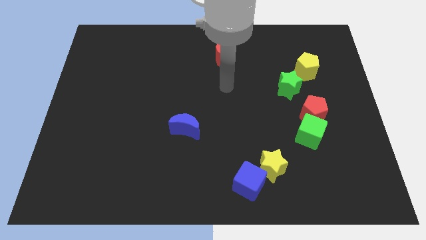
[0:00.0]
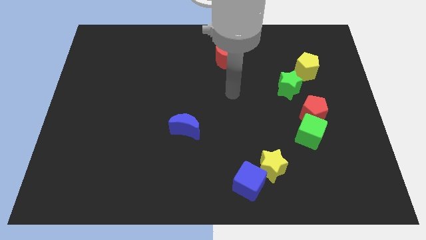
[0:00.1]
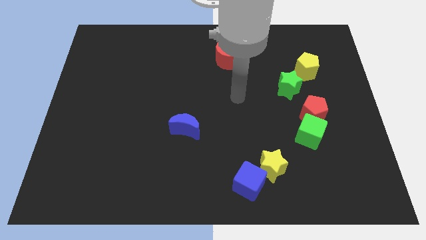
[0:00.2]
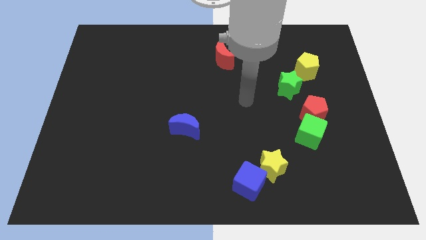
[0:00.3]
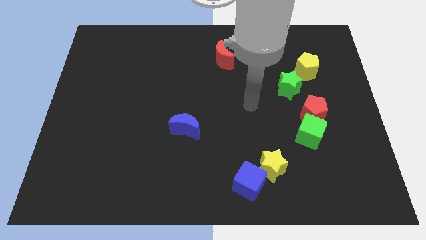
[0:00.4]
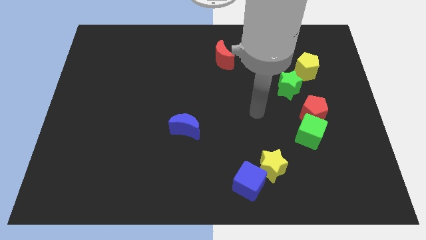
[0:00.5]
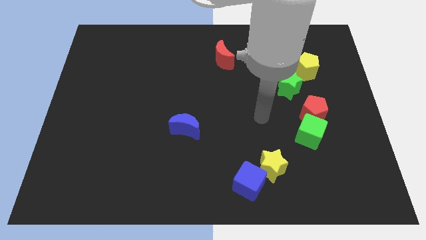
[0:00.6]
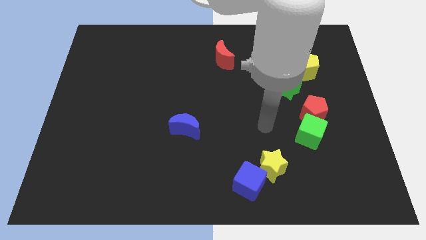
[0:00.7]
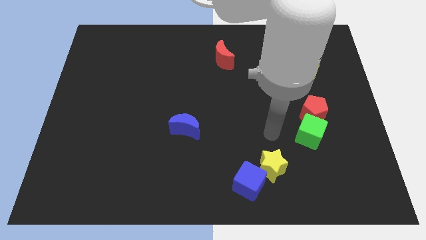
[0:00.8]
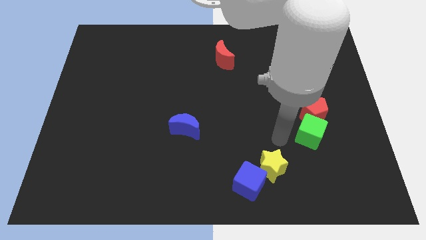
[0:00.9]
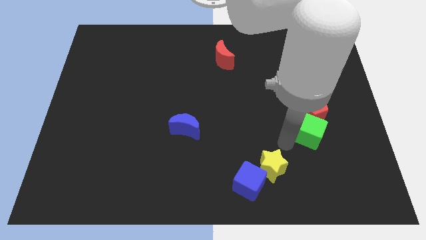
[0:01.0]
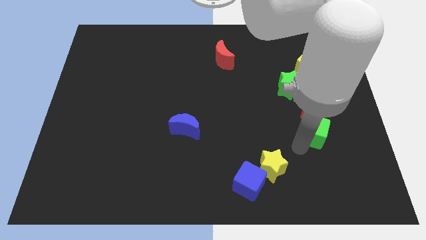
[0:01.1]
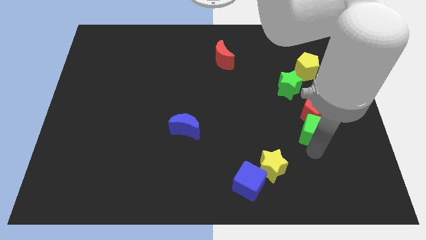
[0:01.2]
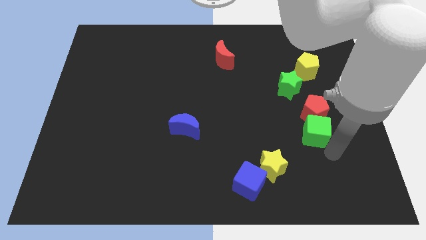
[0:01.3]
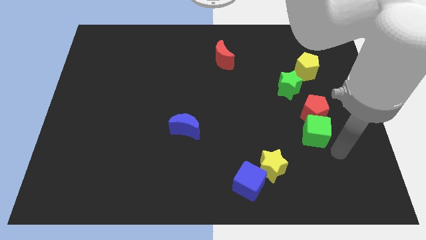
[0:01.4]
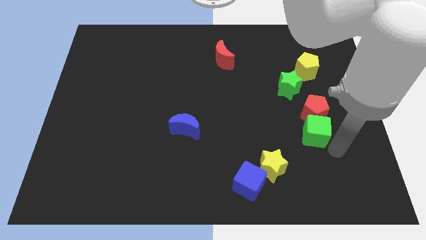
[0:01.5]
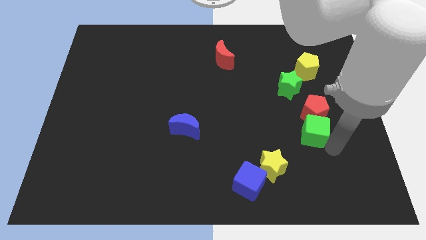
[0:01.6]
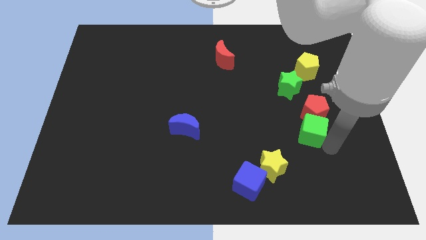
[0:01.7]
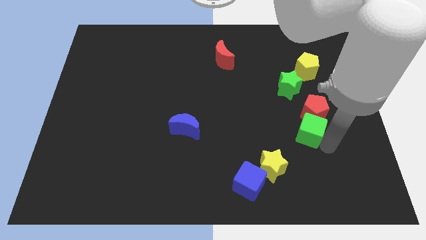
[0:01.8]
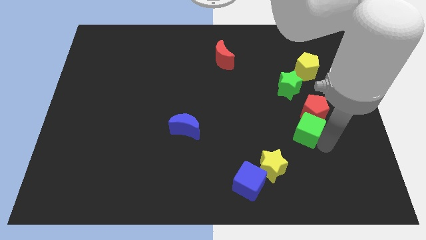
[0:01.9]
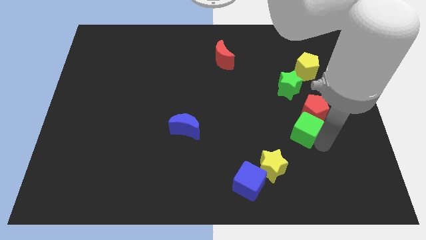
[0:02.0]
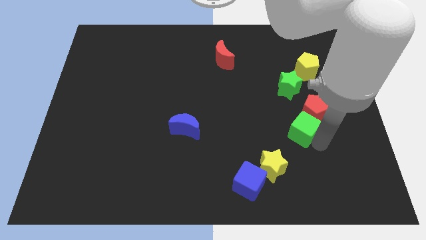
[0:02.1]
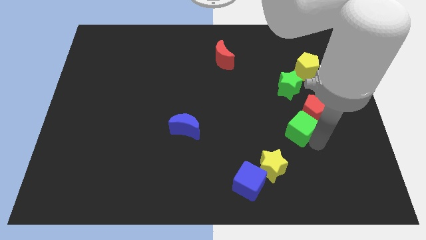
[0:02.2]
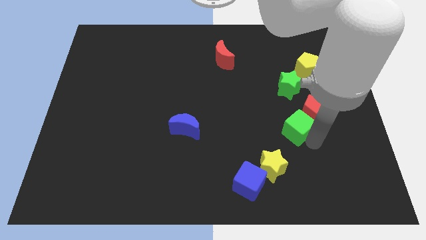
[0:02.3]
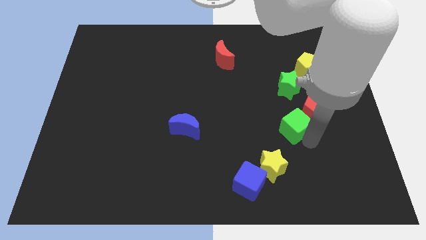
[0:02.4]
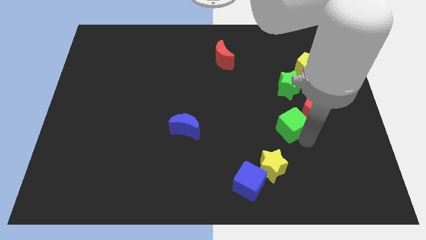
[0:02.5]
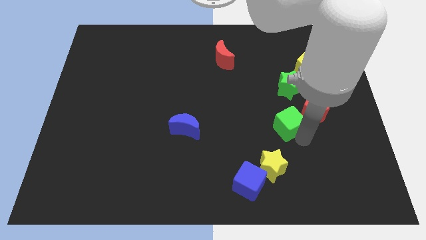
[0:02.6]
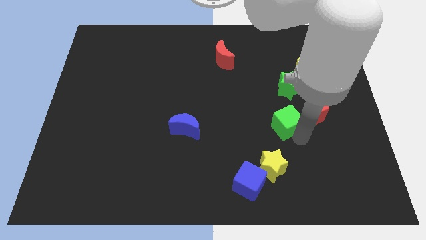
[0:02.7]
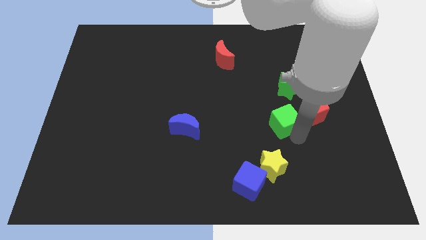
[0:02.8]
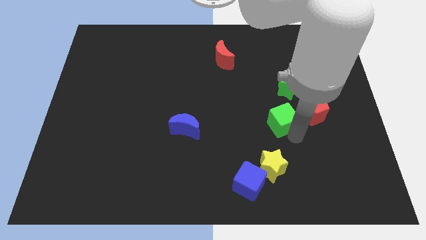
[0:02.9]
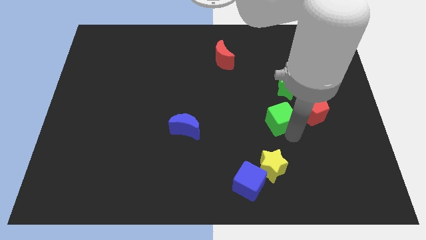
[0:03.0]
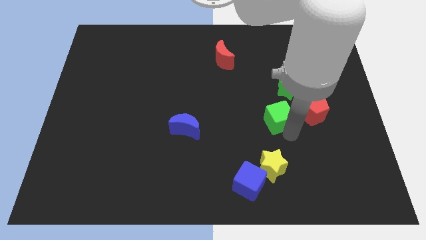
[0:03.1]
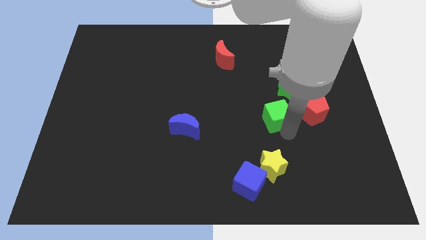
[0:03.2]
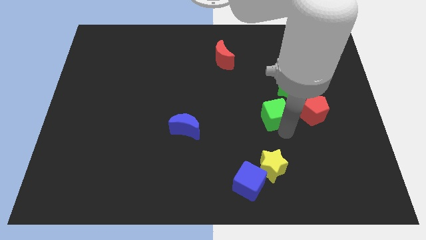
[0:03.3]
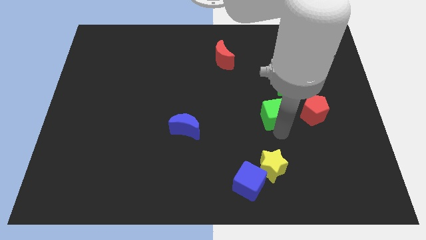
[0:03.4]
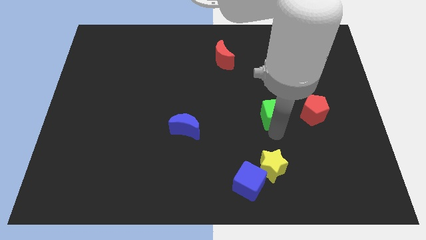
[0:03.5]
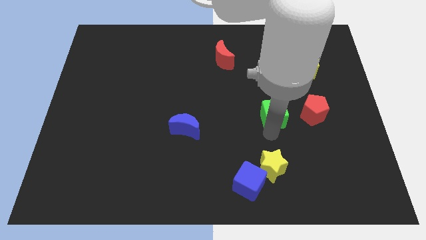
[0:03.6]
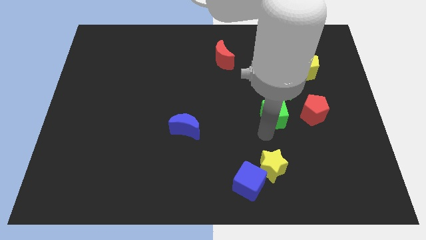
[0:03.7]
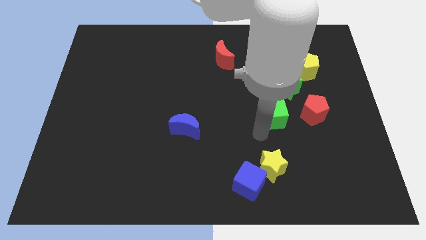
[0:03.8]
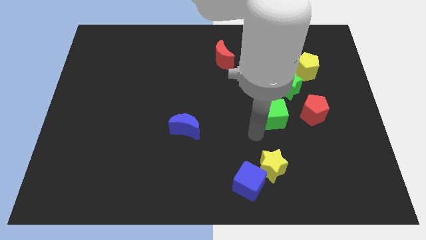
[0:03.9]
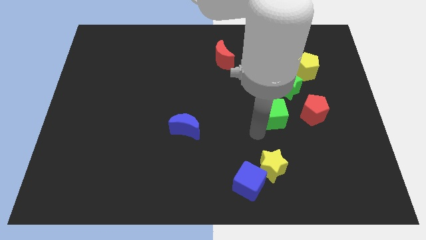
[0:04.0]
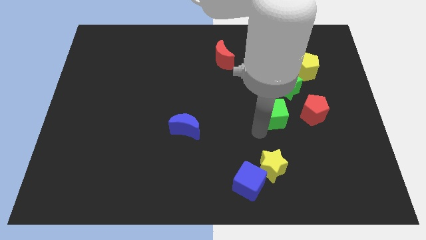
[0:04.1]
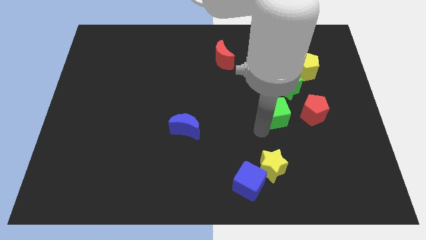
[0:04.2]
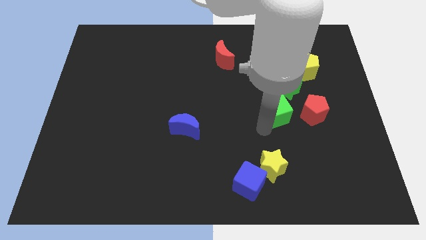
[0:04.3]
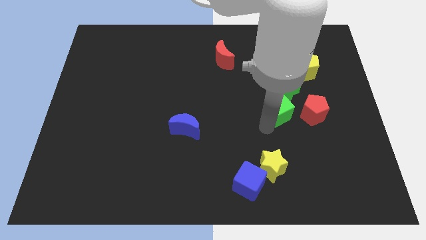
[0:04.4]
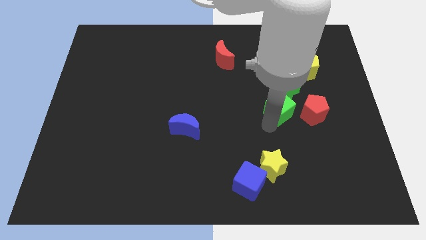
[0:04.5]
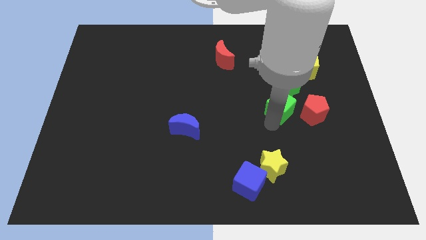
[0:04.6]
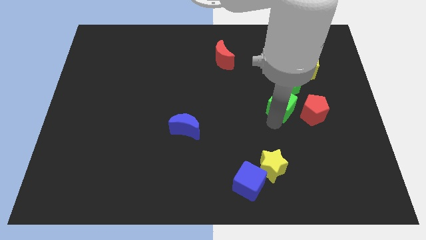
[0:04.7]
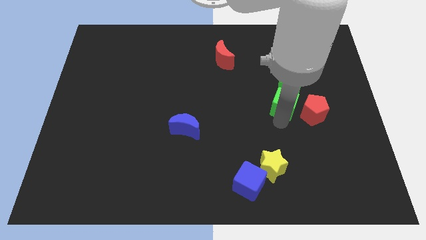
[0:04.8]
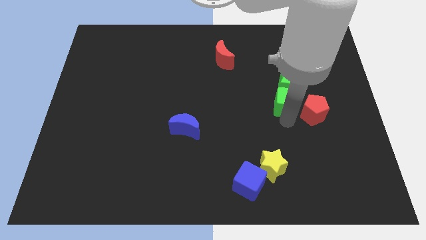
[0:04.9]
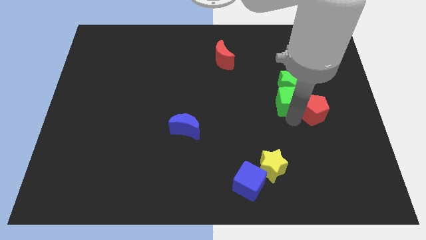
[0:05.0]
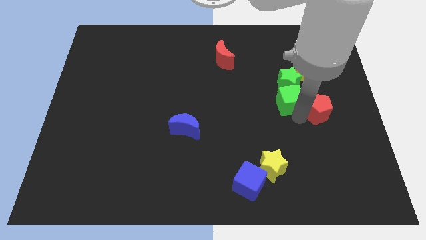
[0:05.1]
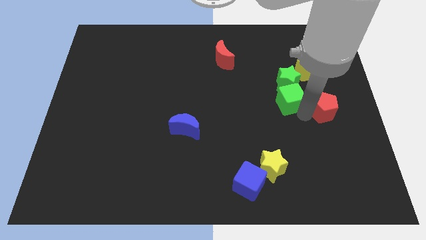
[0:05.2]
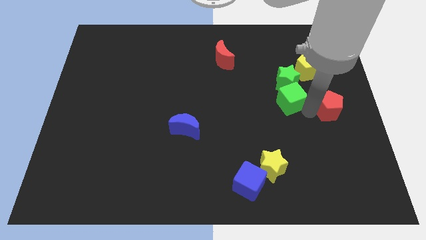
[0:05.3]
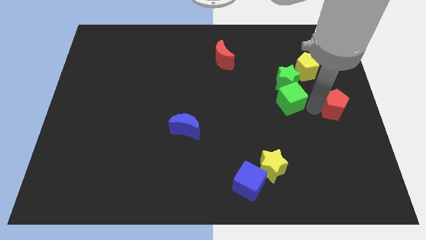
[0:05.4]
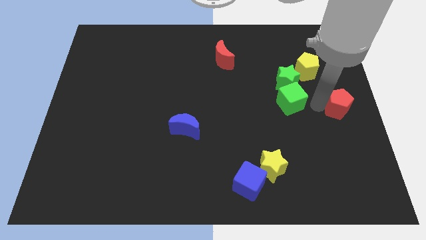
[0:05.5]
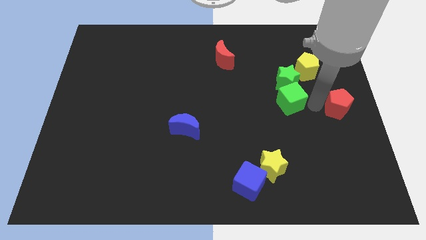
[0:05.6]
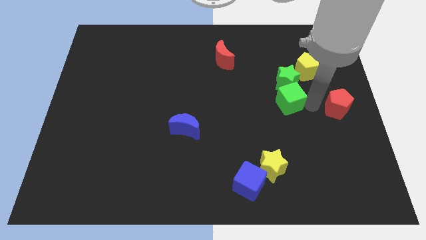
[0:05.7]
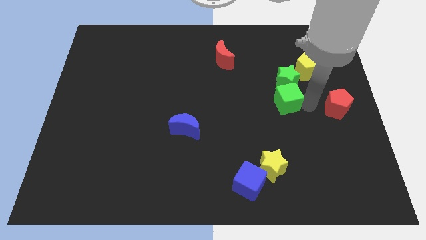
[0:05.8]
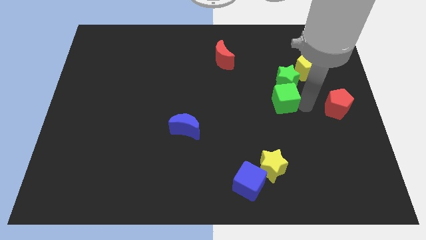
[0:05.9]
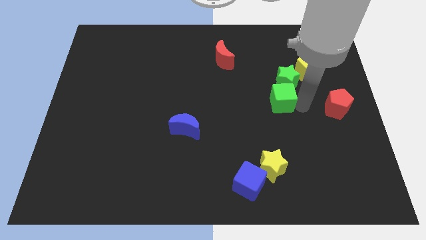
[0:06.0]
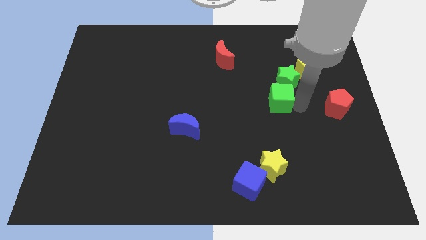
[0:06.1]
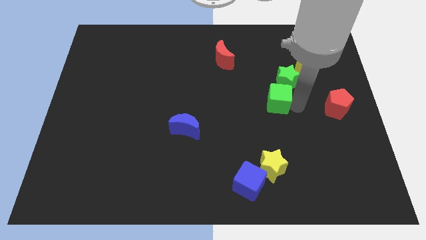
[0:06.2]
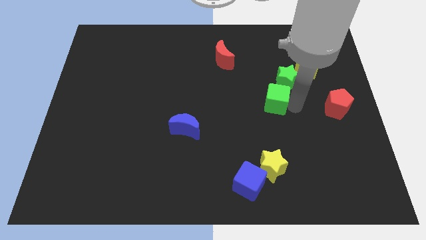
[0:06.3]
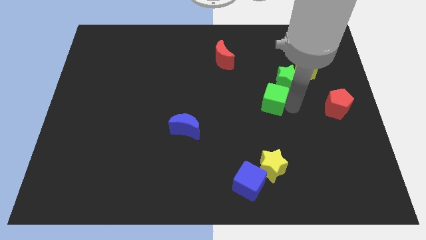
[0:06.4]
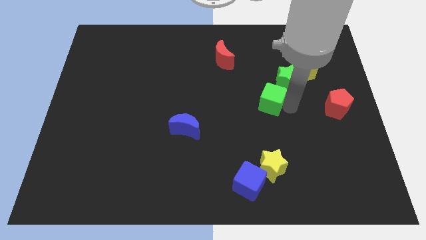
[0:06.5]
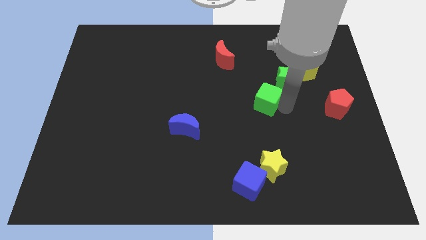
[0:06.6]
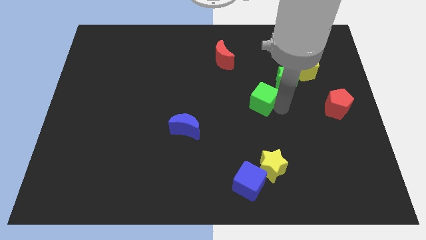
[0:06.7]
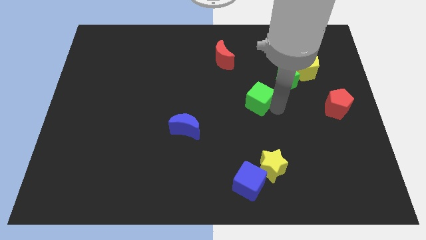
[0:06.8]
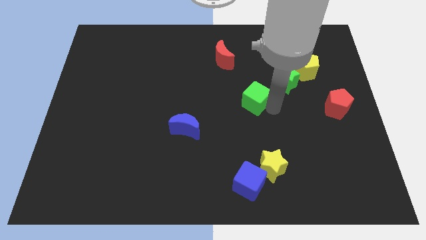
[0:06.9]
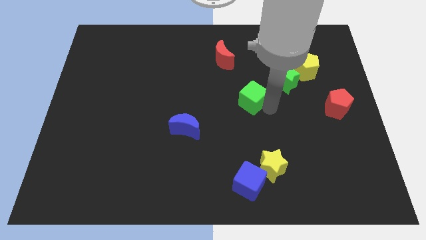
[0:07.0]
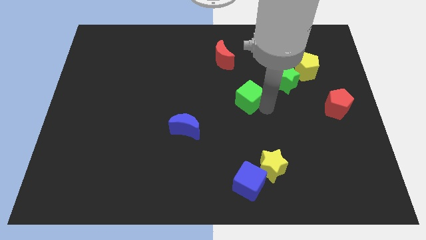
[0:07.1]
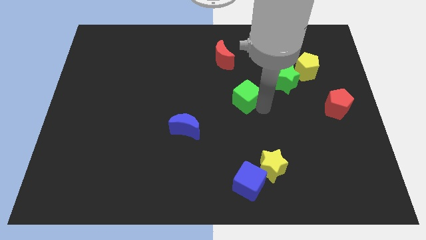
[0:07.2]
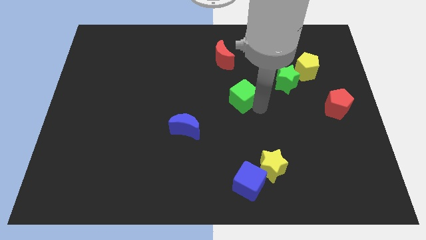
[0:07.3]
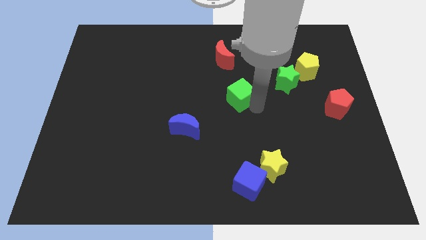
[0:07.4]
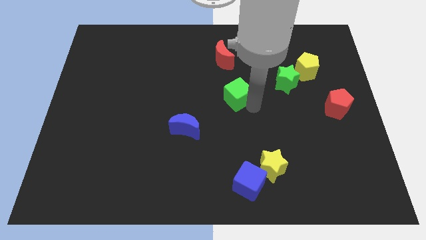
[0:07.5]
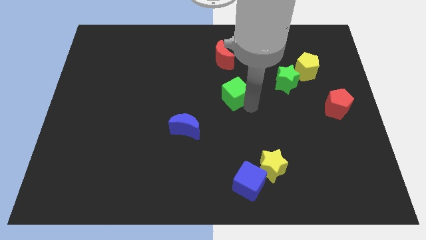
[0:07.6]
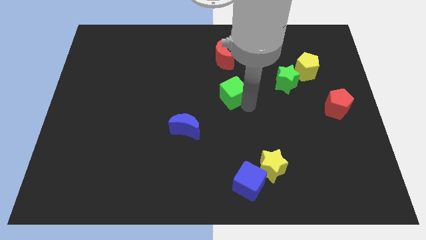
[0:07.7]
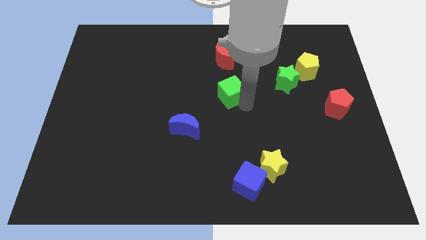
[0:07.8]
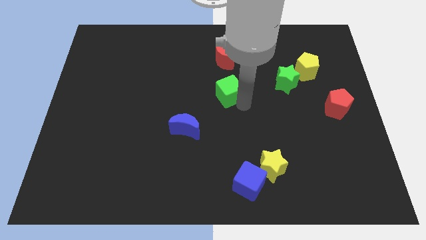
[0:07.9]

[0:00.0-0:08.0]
push the green cube up and left
